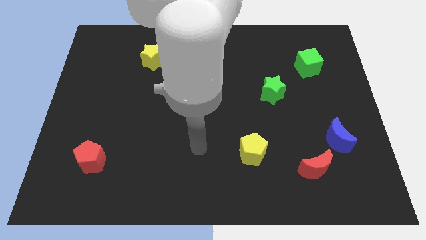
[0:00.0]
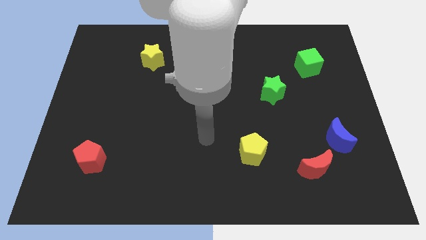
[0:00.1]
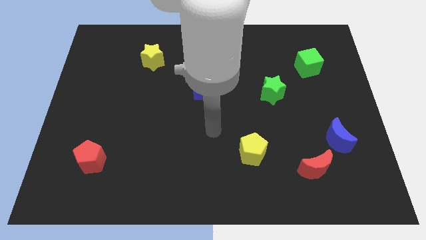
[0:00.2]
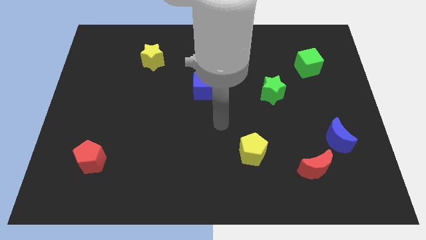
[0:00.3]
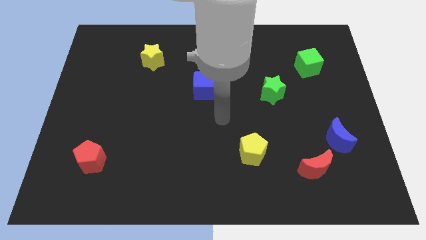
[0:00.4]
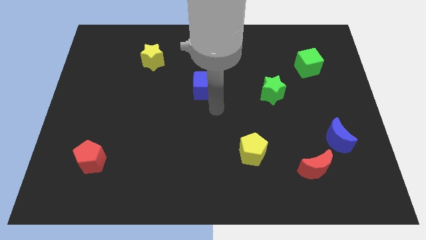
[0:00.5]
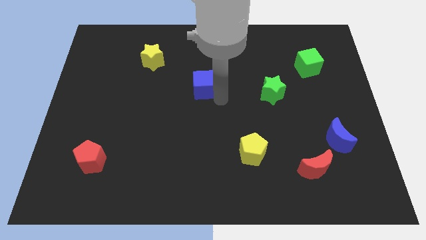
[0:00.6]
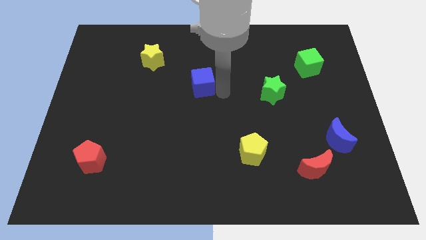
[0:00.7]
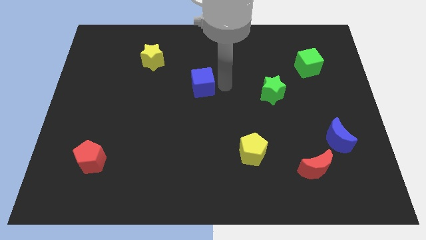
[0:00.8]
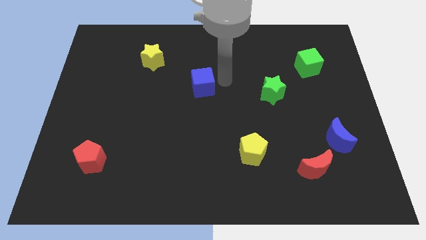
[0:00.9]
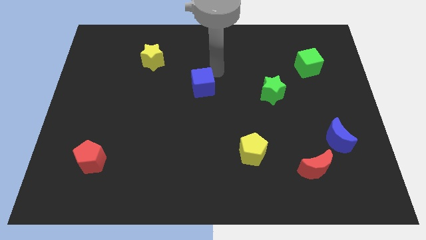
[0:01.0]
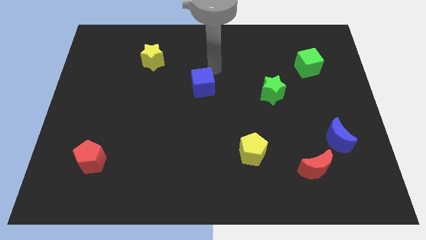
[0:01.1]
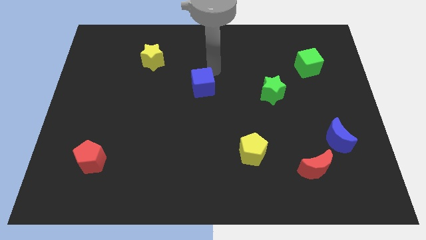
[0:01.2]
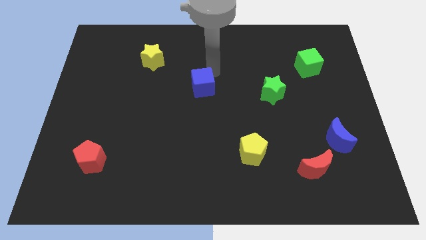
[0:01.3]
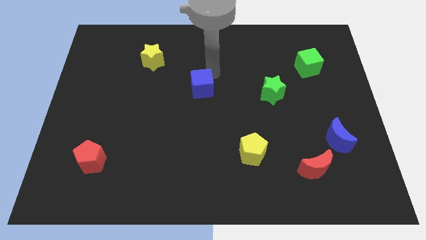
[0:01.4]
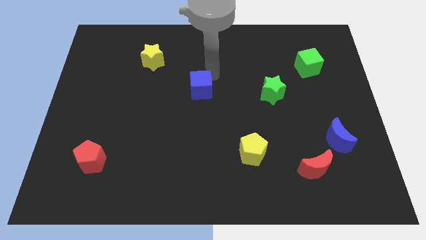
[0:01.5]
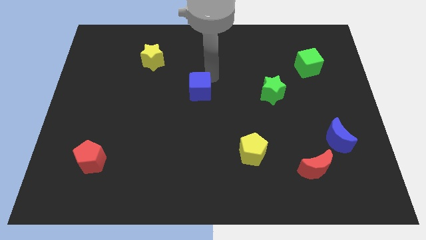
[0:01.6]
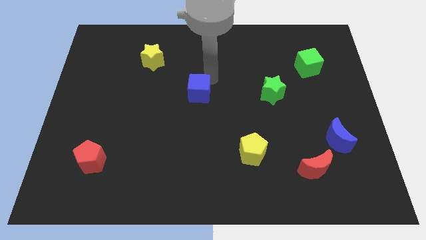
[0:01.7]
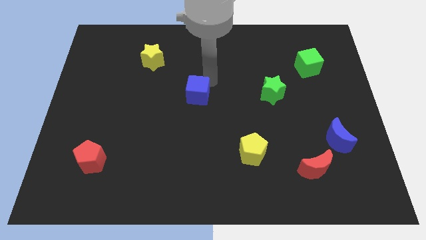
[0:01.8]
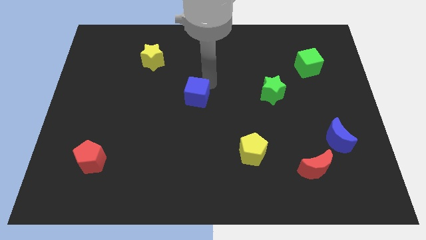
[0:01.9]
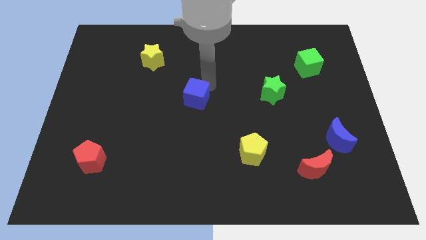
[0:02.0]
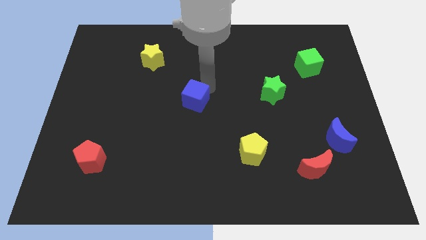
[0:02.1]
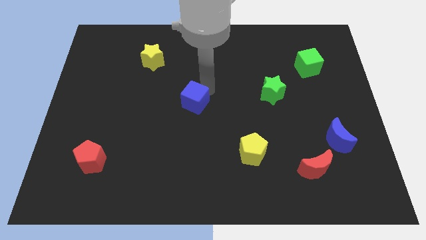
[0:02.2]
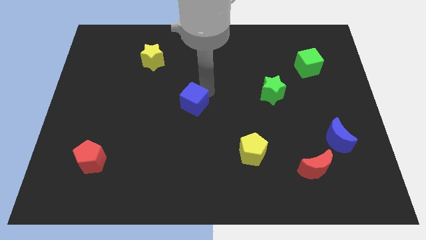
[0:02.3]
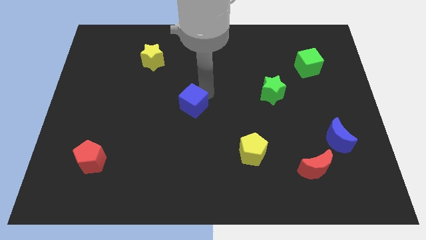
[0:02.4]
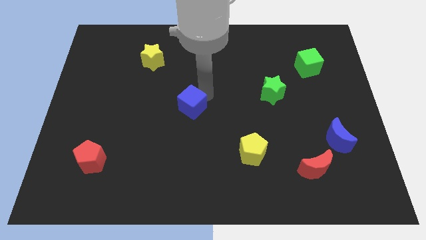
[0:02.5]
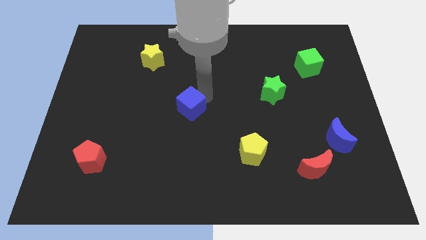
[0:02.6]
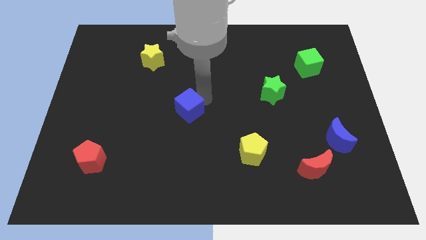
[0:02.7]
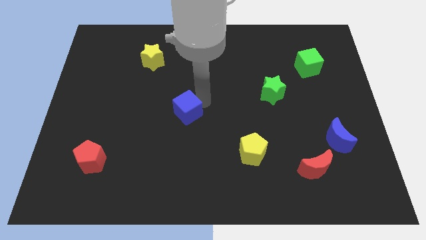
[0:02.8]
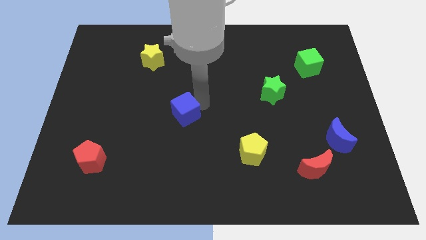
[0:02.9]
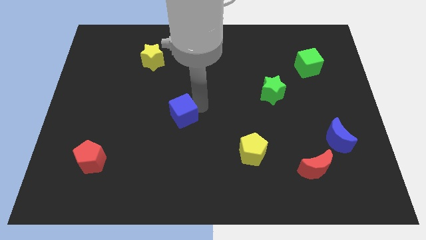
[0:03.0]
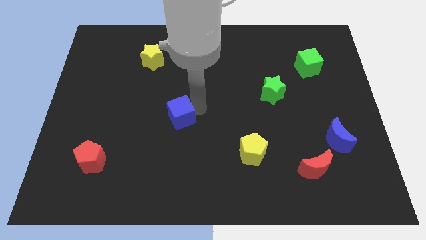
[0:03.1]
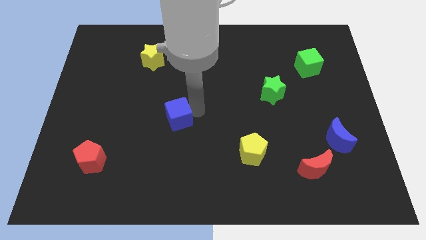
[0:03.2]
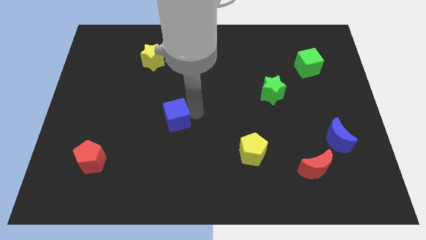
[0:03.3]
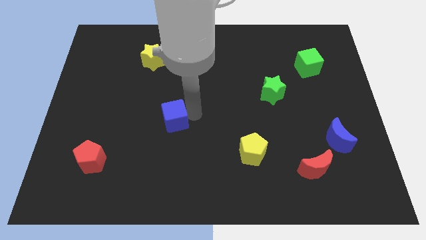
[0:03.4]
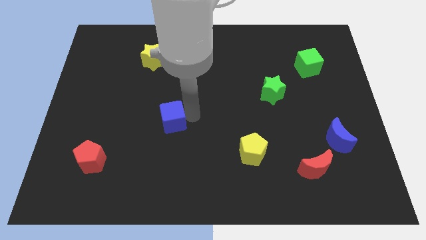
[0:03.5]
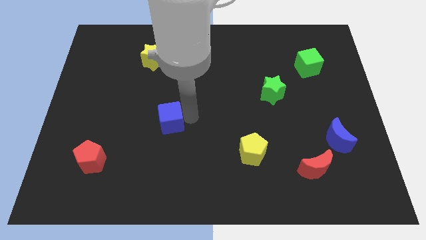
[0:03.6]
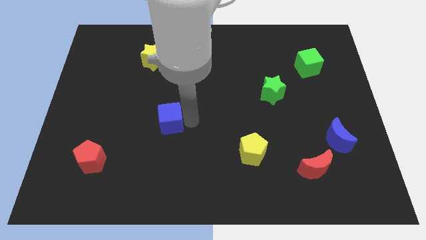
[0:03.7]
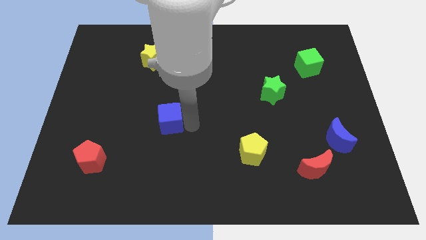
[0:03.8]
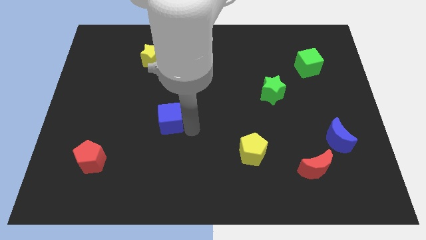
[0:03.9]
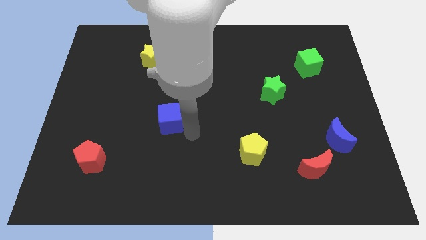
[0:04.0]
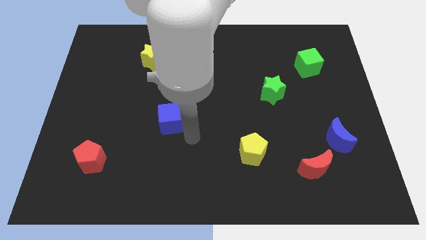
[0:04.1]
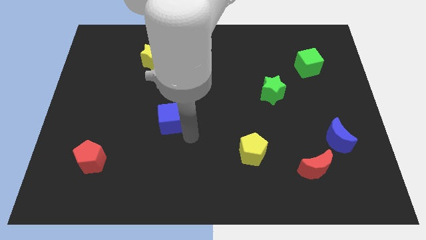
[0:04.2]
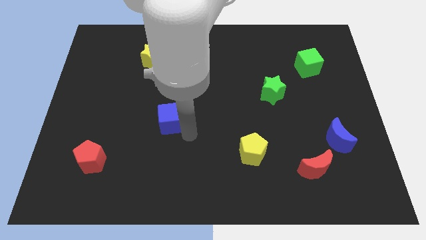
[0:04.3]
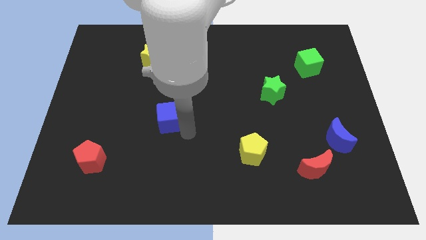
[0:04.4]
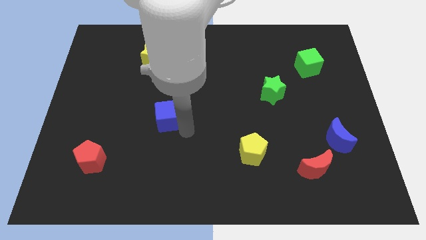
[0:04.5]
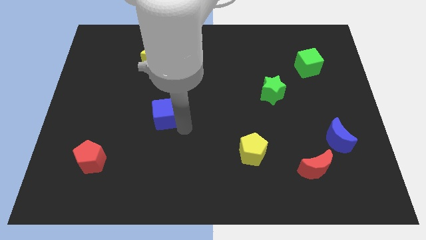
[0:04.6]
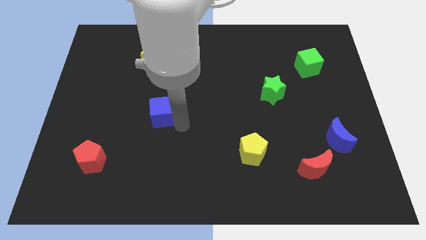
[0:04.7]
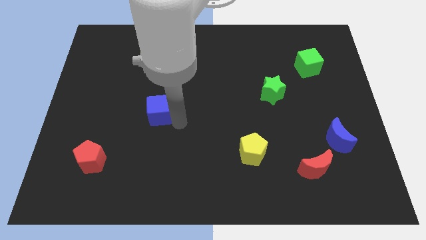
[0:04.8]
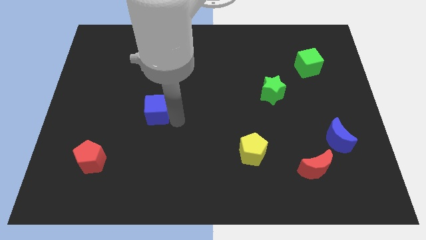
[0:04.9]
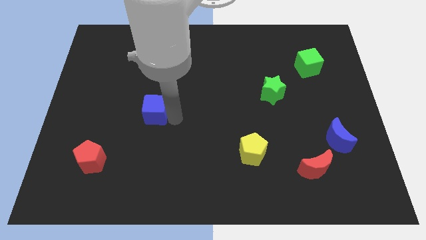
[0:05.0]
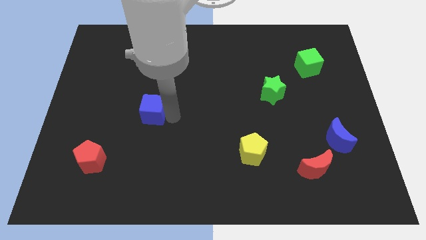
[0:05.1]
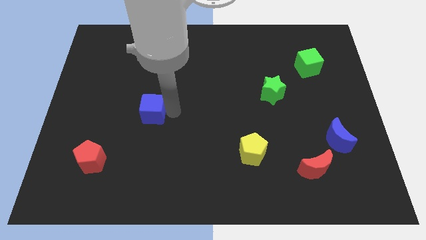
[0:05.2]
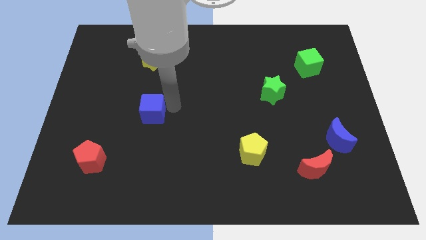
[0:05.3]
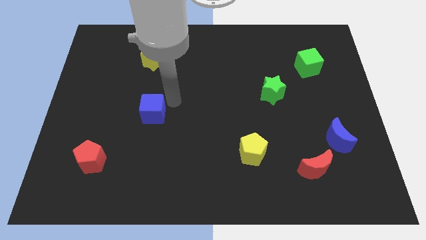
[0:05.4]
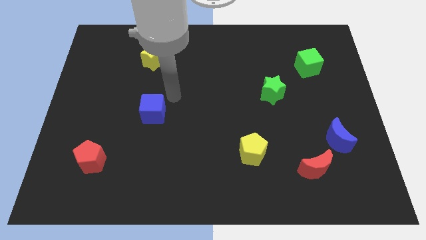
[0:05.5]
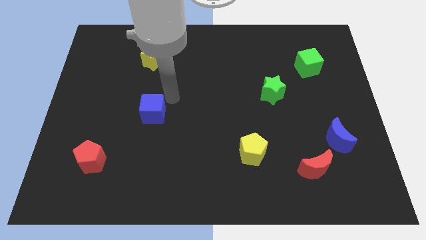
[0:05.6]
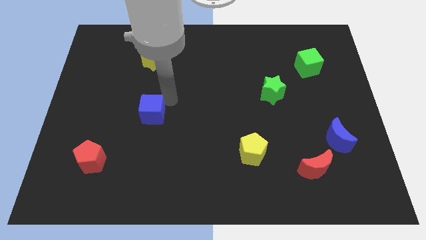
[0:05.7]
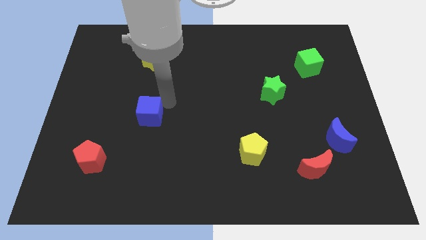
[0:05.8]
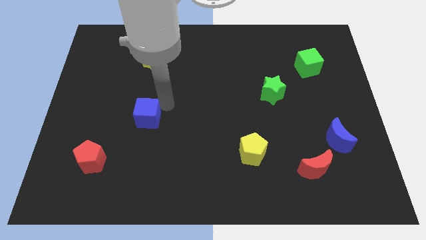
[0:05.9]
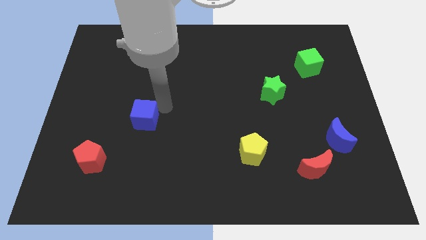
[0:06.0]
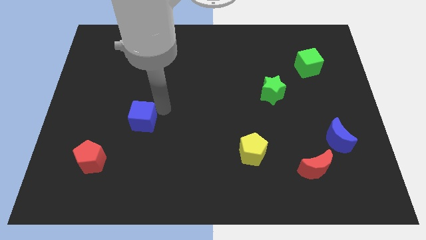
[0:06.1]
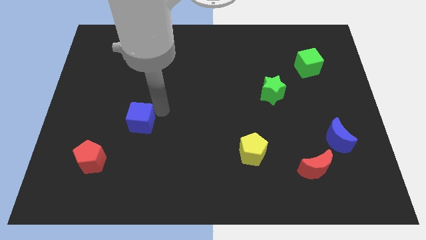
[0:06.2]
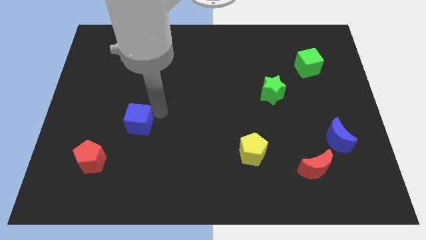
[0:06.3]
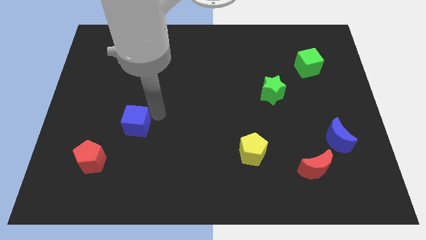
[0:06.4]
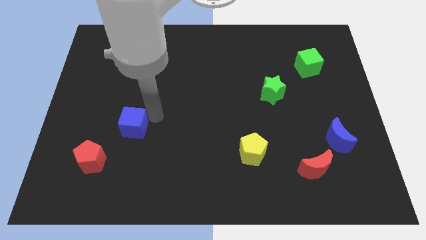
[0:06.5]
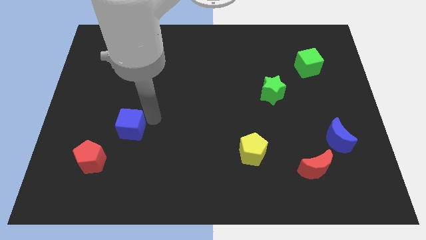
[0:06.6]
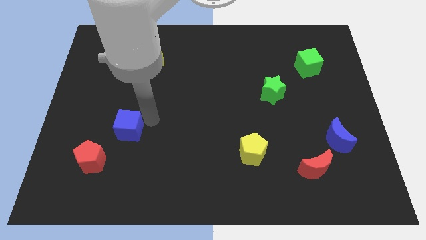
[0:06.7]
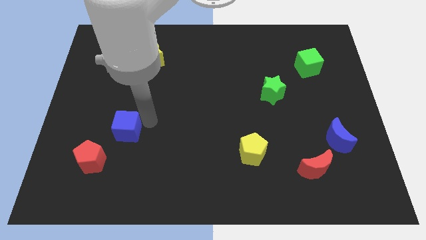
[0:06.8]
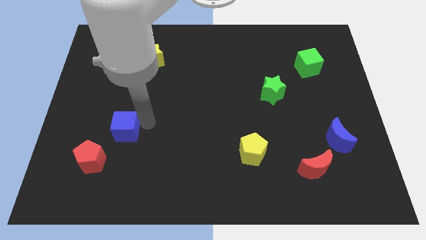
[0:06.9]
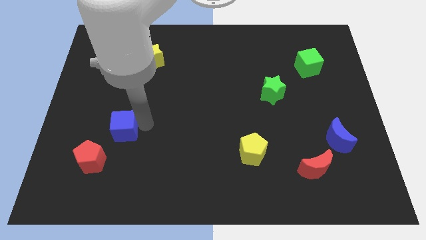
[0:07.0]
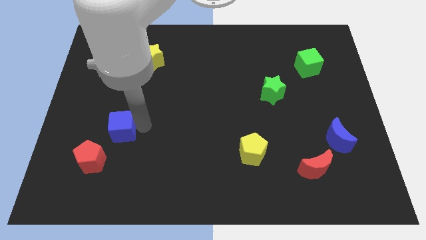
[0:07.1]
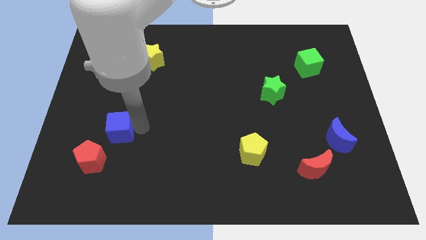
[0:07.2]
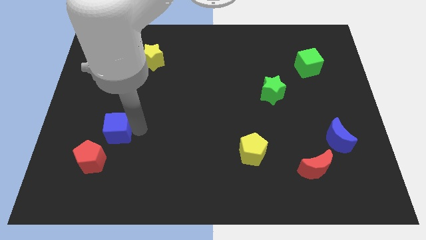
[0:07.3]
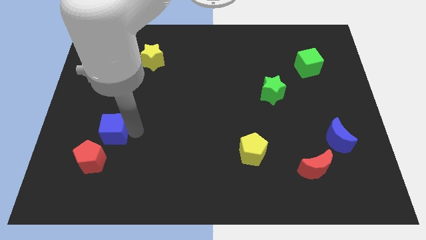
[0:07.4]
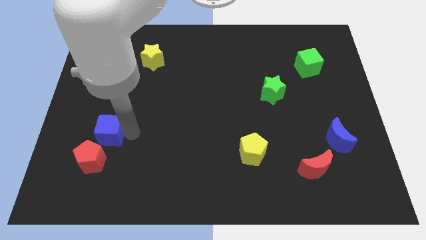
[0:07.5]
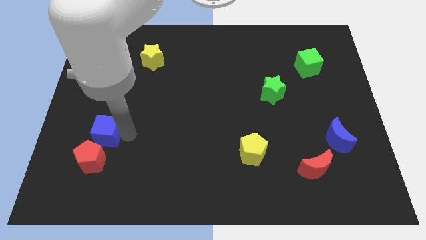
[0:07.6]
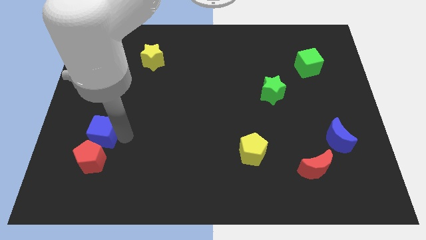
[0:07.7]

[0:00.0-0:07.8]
move the blue cube to the red pentagon

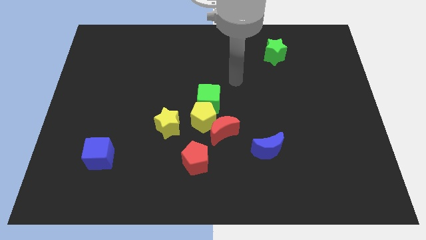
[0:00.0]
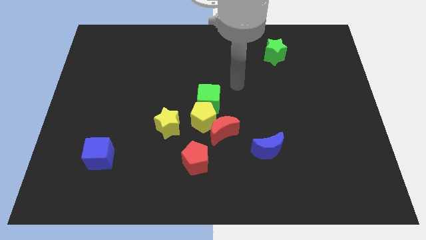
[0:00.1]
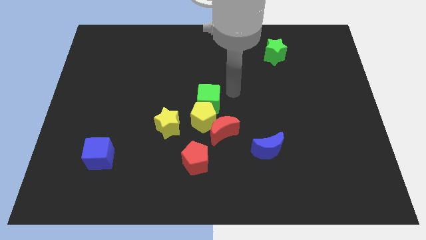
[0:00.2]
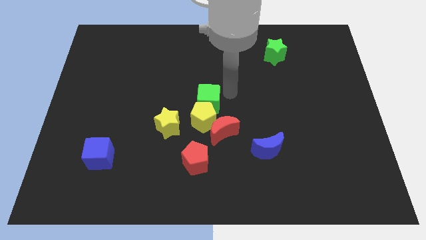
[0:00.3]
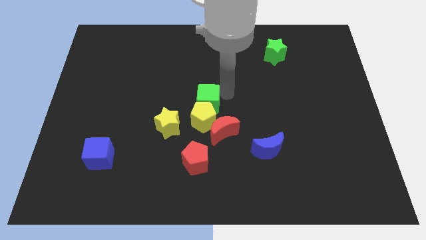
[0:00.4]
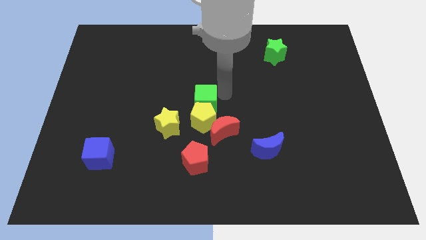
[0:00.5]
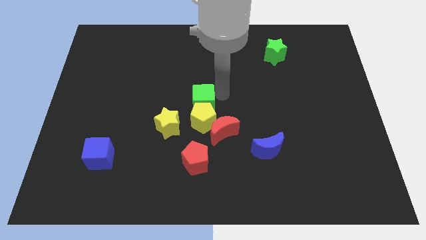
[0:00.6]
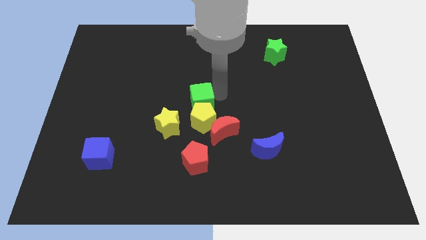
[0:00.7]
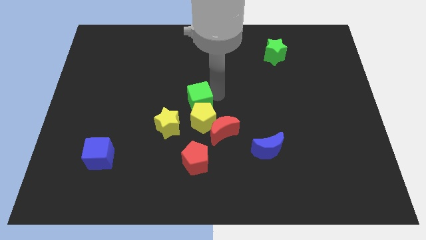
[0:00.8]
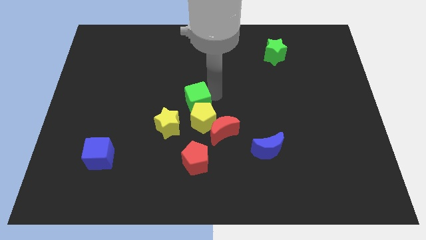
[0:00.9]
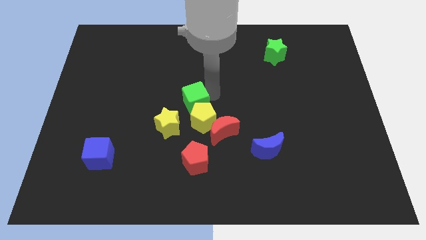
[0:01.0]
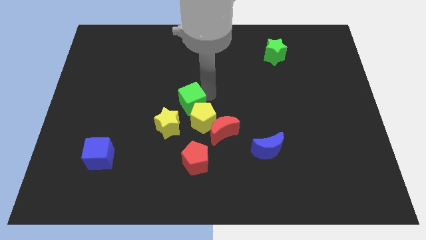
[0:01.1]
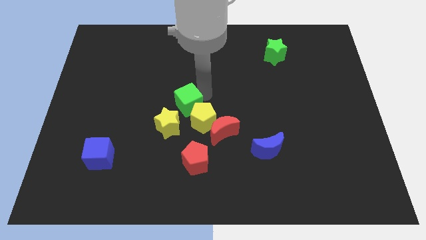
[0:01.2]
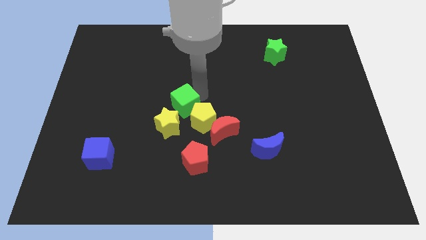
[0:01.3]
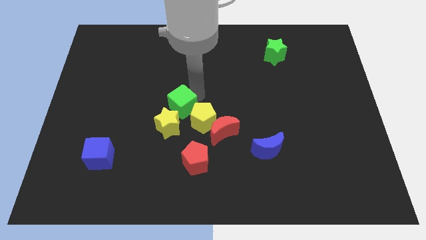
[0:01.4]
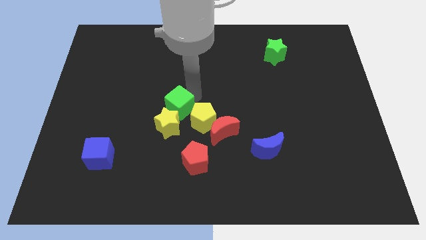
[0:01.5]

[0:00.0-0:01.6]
push the green cube close to the yellow star
